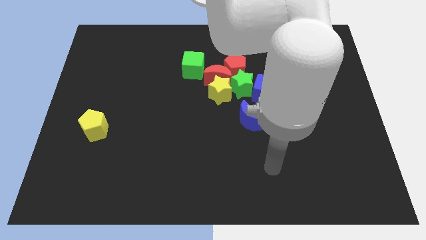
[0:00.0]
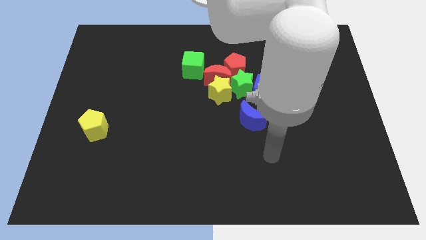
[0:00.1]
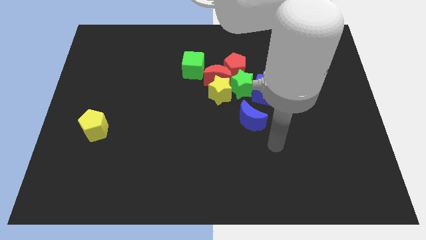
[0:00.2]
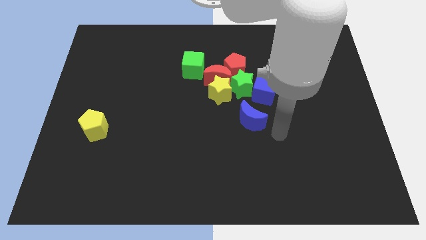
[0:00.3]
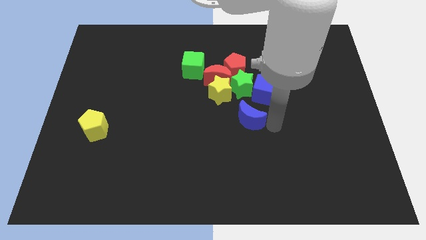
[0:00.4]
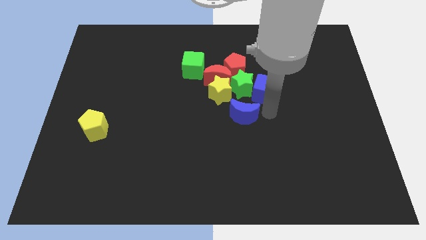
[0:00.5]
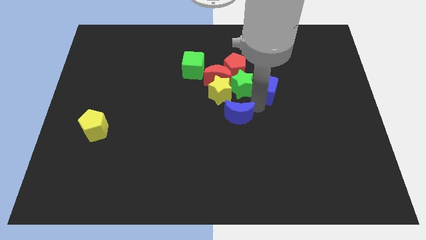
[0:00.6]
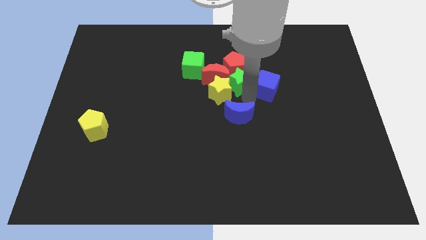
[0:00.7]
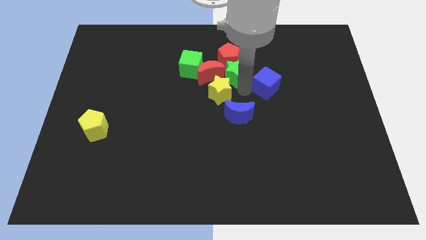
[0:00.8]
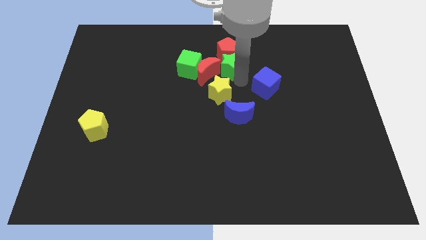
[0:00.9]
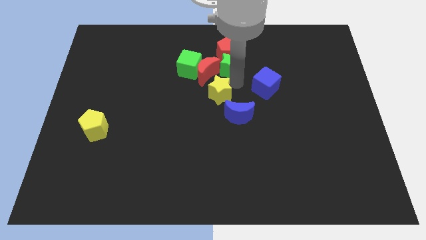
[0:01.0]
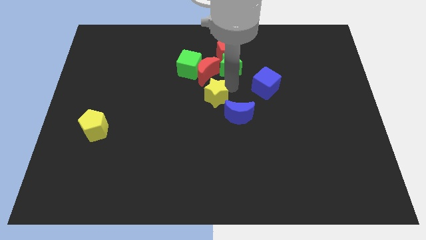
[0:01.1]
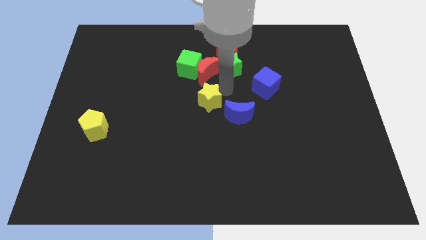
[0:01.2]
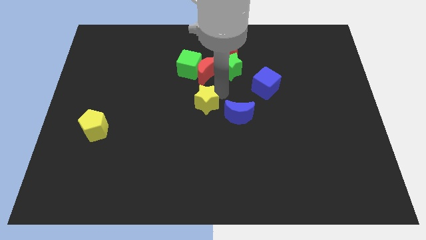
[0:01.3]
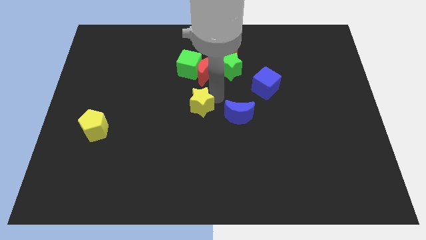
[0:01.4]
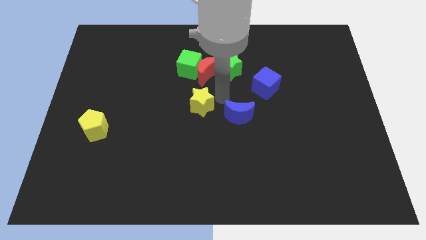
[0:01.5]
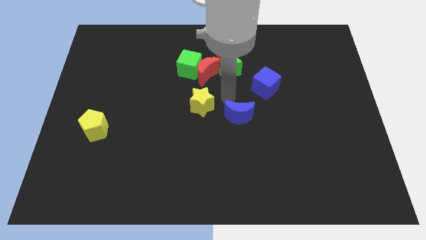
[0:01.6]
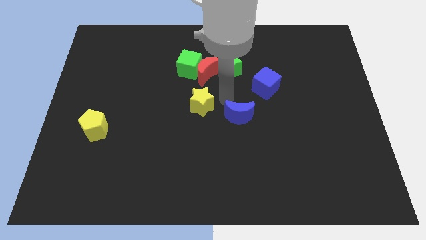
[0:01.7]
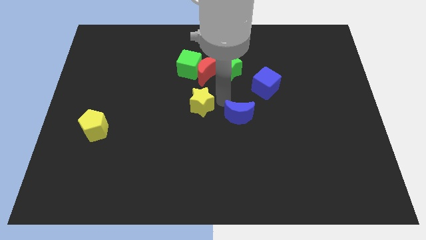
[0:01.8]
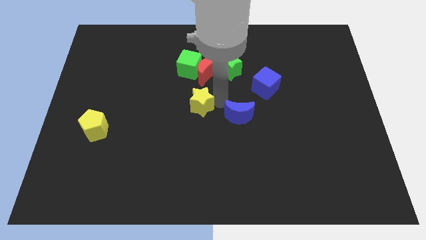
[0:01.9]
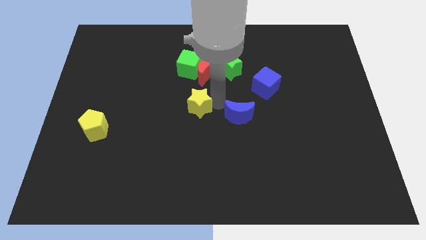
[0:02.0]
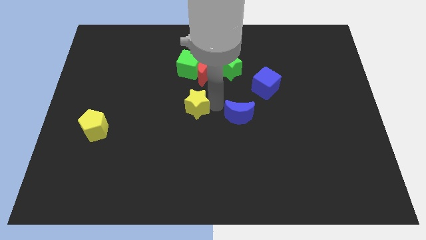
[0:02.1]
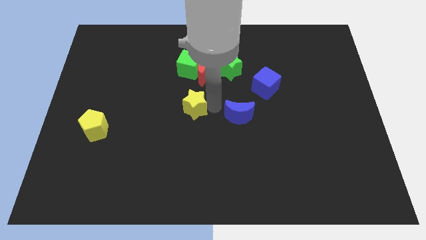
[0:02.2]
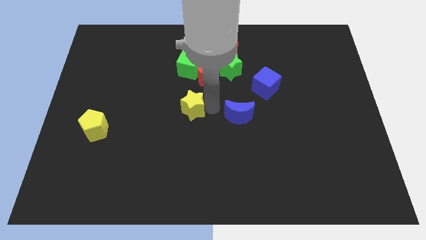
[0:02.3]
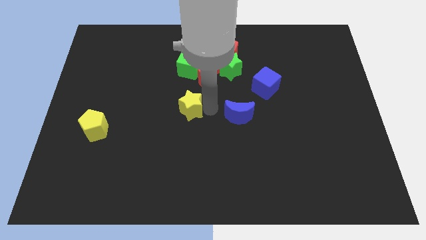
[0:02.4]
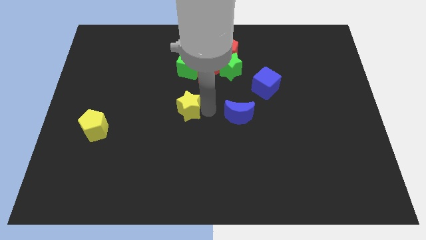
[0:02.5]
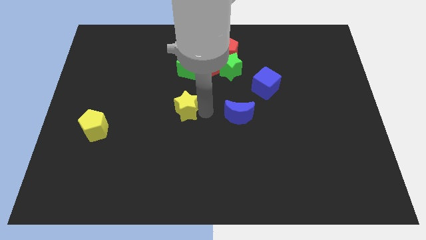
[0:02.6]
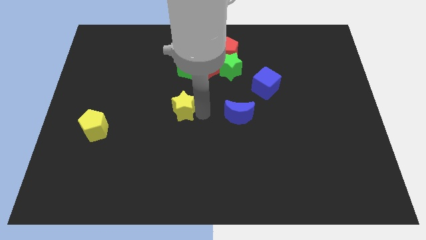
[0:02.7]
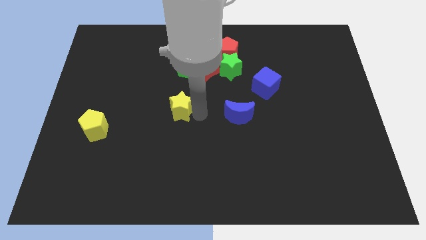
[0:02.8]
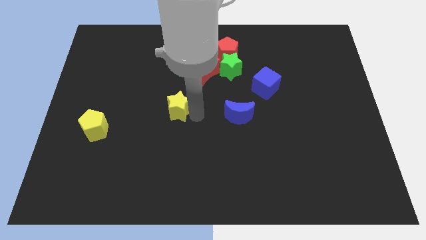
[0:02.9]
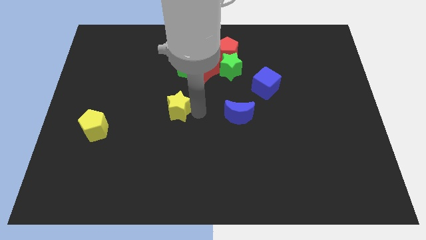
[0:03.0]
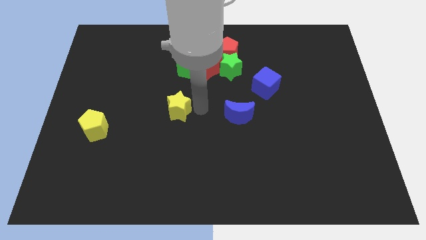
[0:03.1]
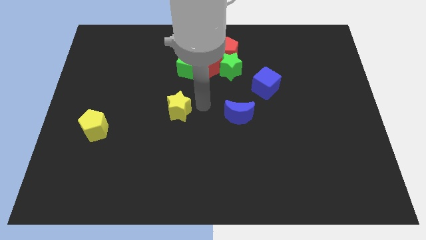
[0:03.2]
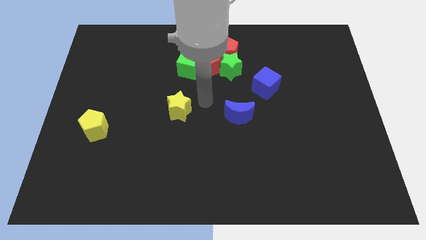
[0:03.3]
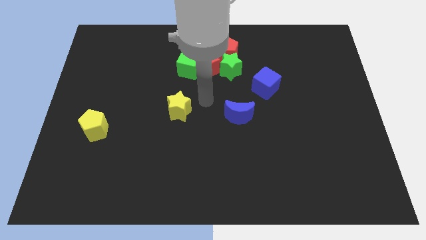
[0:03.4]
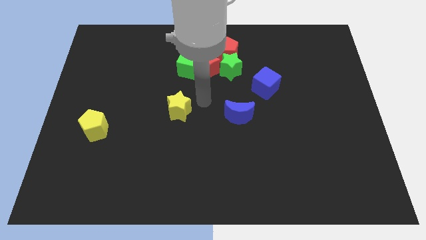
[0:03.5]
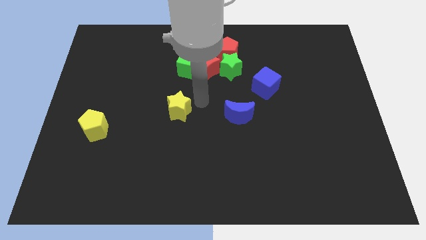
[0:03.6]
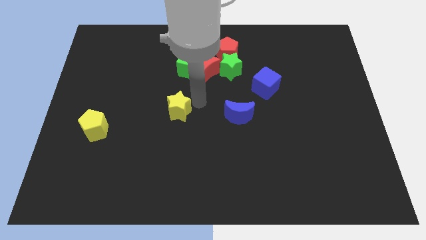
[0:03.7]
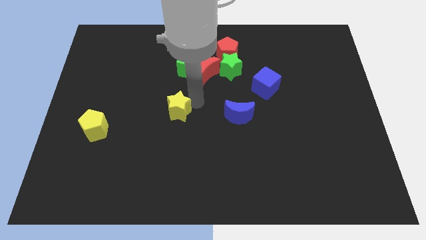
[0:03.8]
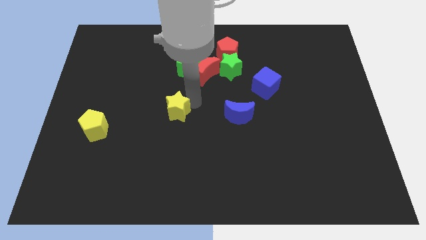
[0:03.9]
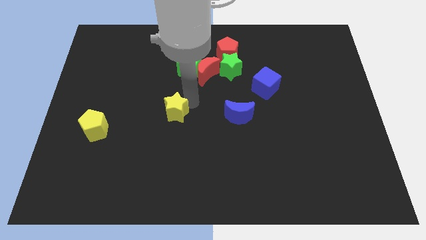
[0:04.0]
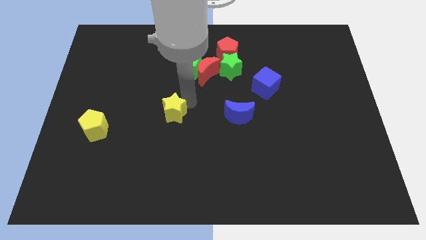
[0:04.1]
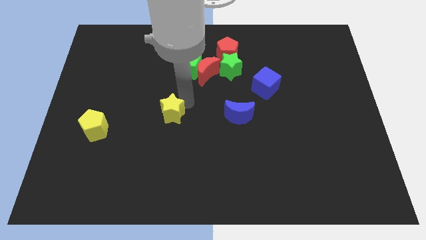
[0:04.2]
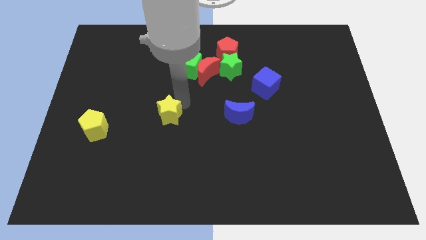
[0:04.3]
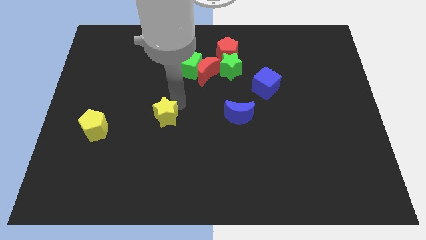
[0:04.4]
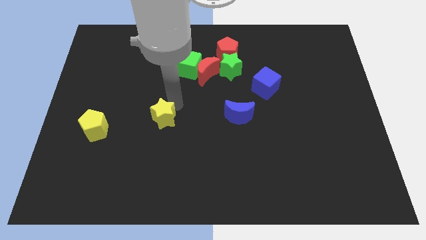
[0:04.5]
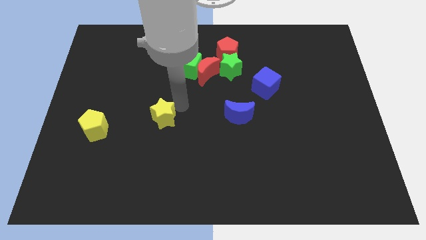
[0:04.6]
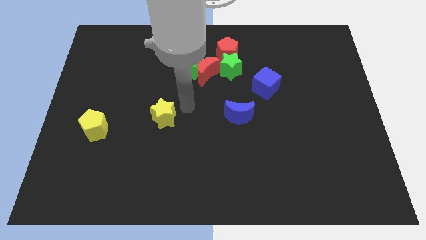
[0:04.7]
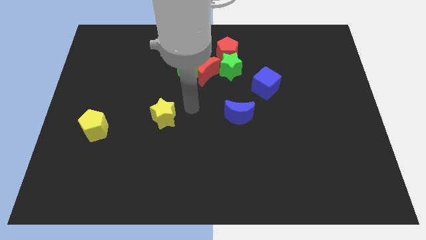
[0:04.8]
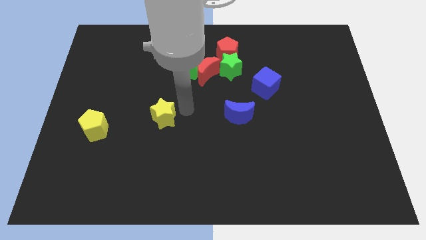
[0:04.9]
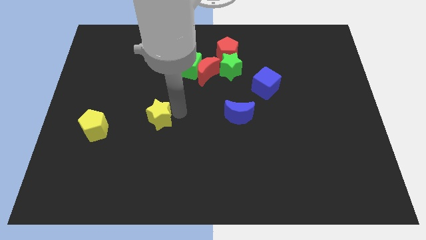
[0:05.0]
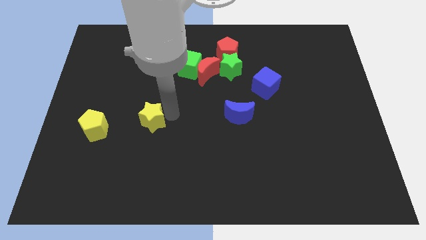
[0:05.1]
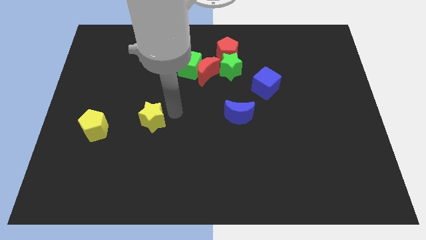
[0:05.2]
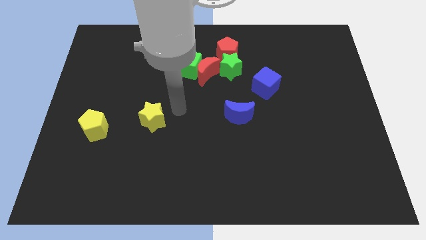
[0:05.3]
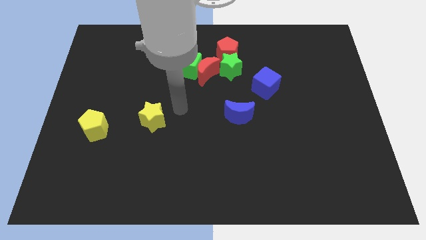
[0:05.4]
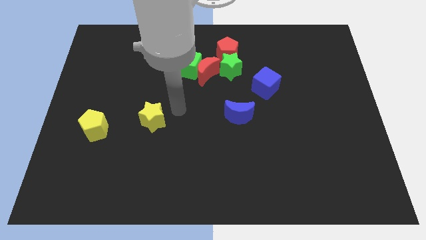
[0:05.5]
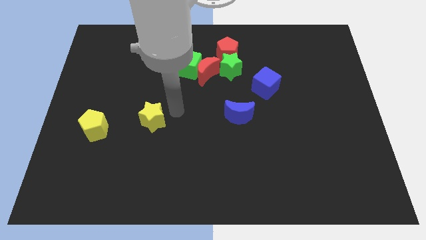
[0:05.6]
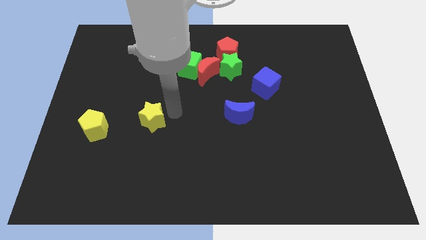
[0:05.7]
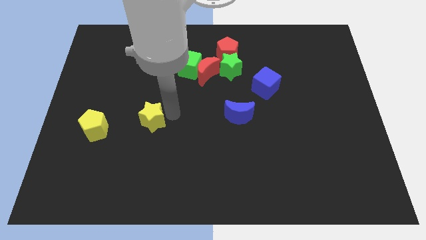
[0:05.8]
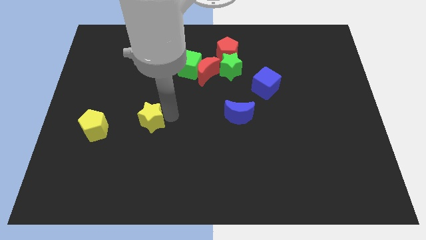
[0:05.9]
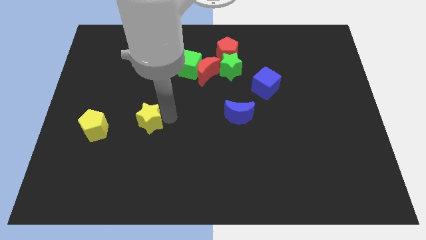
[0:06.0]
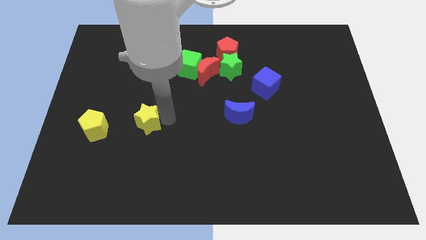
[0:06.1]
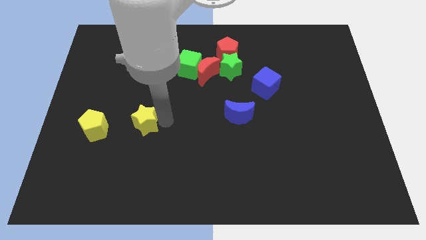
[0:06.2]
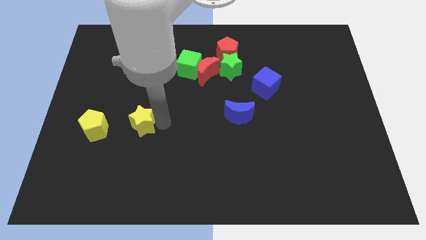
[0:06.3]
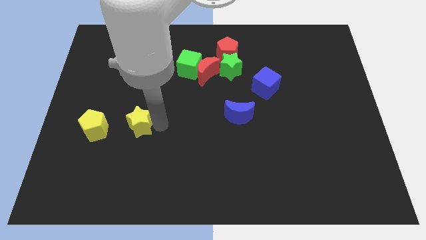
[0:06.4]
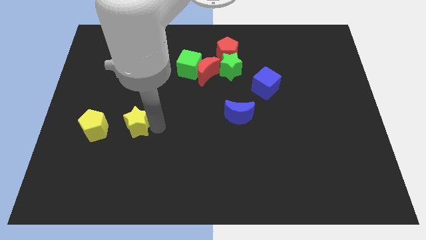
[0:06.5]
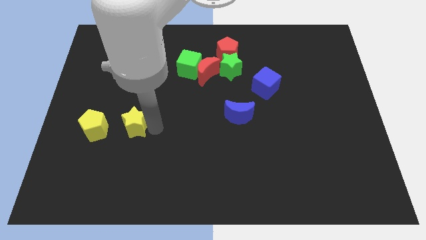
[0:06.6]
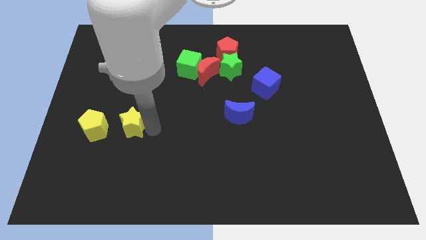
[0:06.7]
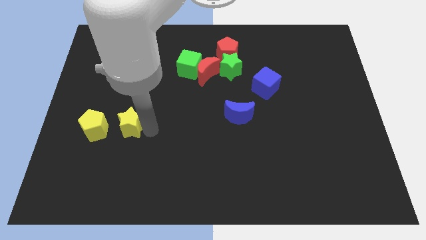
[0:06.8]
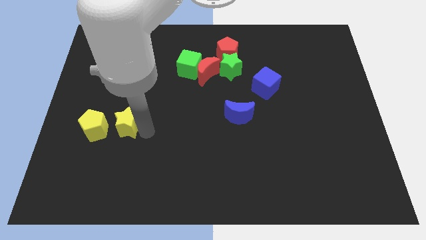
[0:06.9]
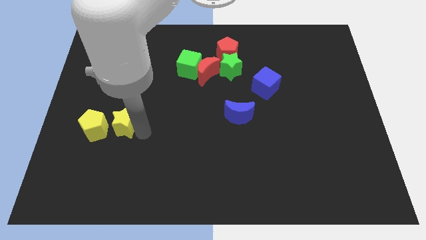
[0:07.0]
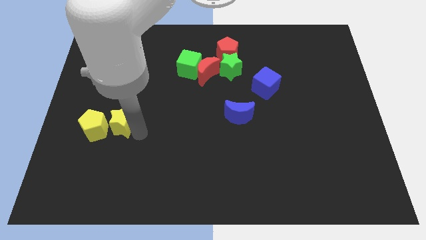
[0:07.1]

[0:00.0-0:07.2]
move the yellow star next to the yellow pentagon

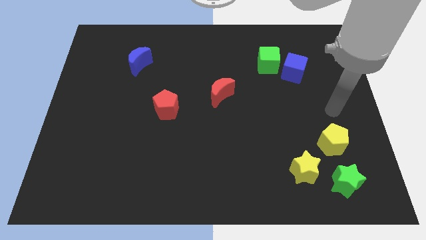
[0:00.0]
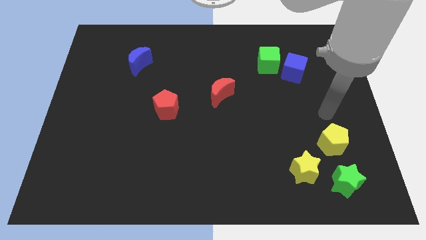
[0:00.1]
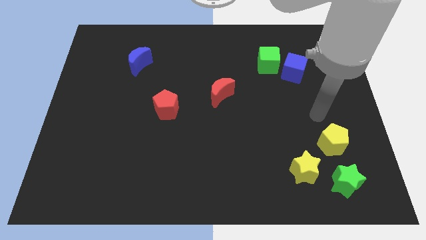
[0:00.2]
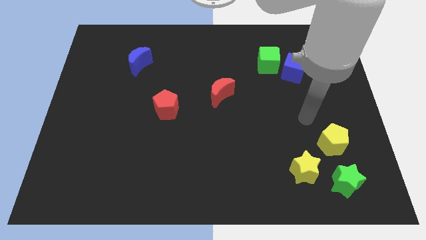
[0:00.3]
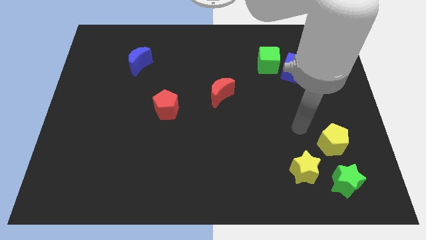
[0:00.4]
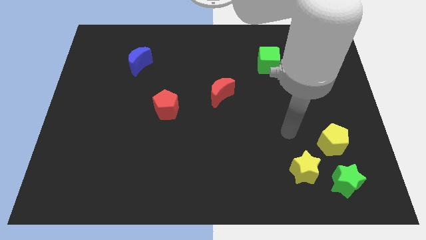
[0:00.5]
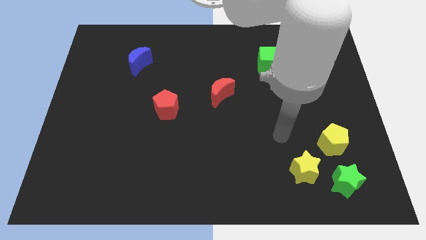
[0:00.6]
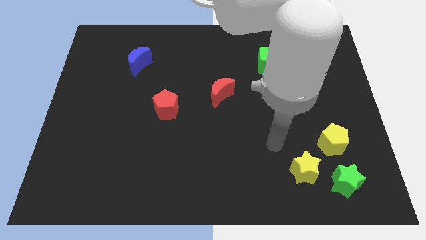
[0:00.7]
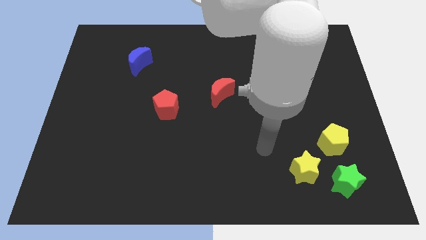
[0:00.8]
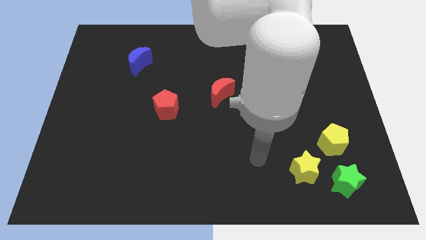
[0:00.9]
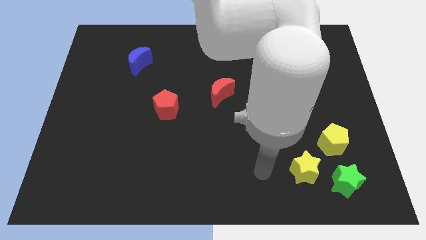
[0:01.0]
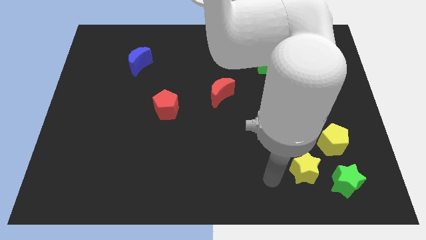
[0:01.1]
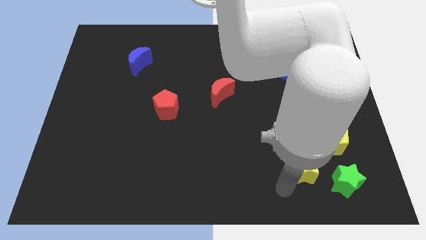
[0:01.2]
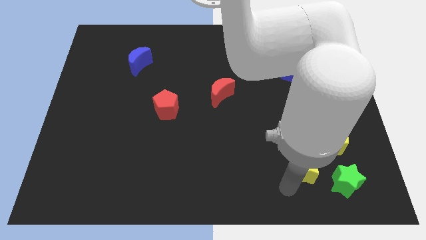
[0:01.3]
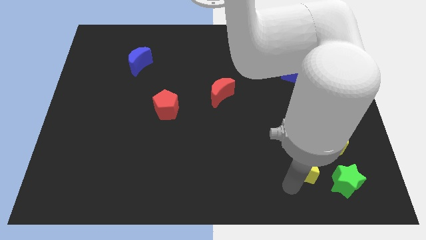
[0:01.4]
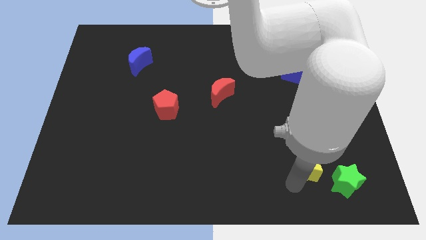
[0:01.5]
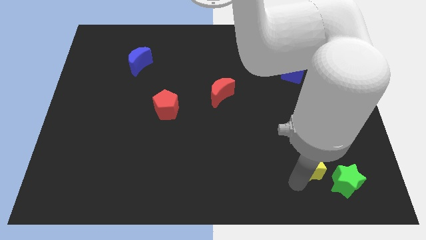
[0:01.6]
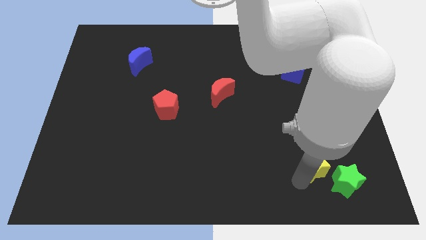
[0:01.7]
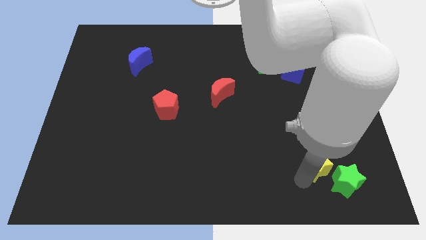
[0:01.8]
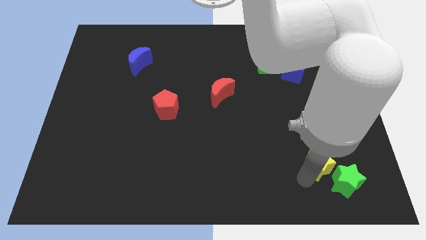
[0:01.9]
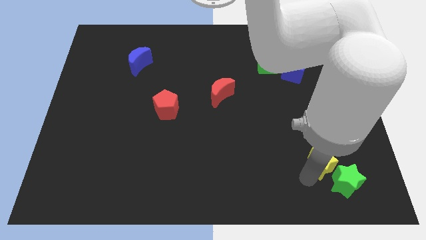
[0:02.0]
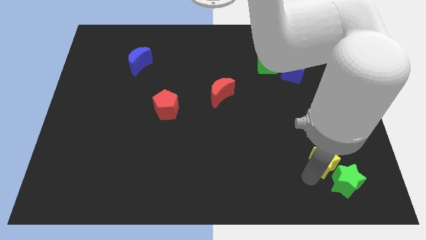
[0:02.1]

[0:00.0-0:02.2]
slide the yellow star to the yellow pentagon
